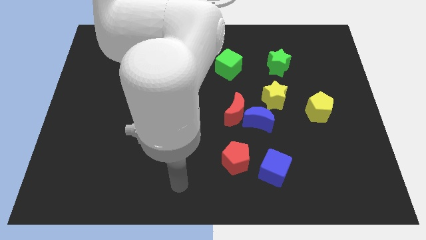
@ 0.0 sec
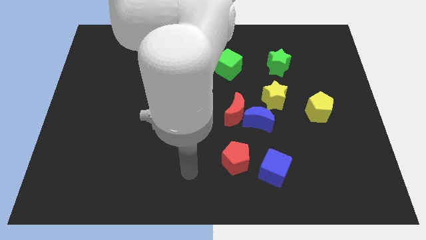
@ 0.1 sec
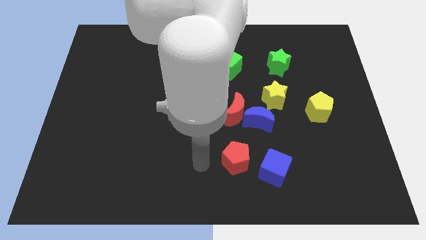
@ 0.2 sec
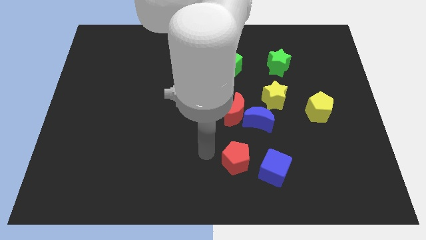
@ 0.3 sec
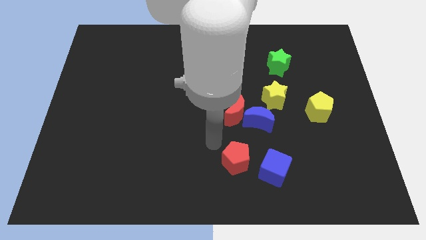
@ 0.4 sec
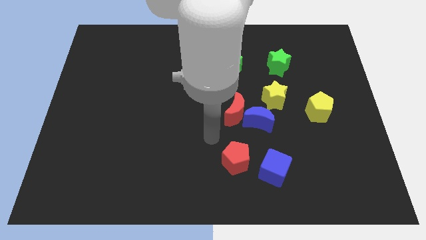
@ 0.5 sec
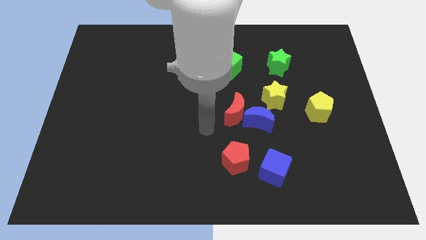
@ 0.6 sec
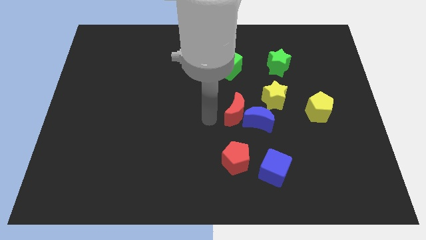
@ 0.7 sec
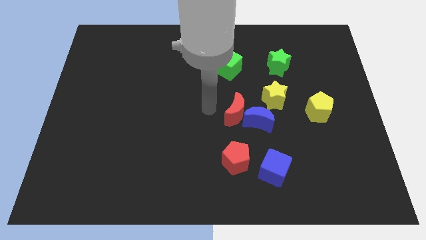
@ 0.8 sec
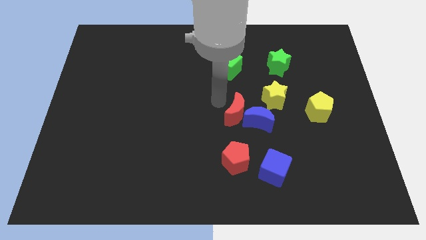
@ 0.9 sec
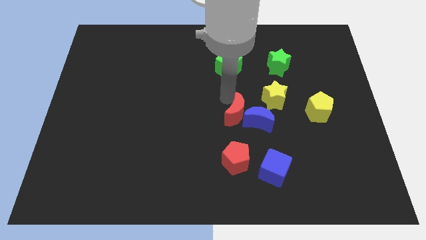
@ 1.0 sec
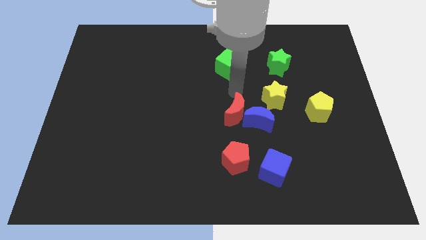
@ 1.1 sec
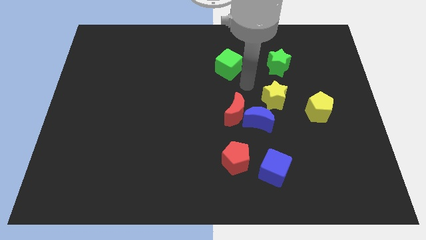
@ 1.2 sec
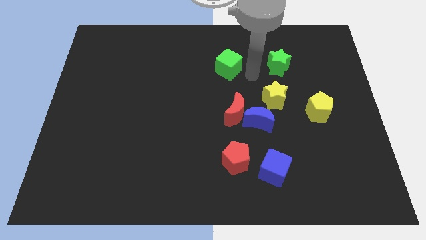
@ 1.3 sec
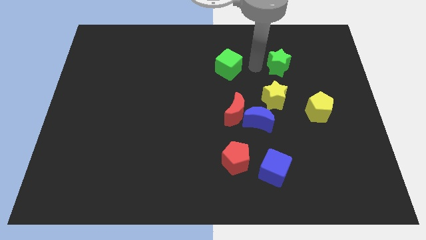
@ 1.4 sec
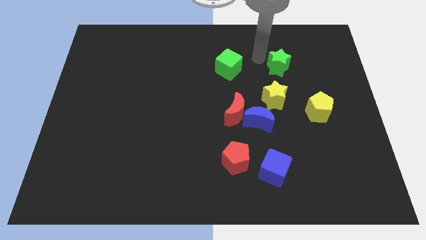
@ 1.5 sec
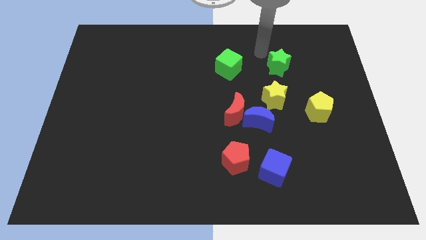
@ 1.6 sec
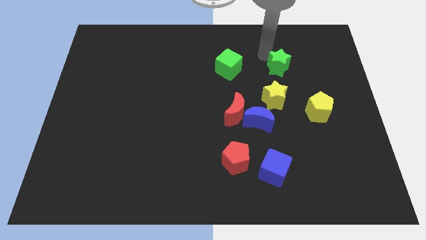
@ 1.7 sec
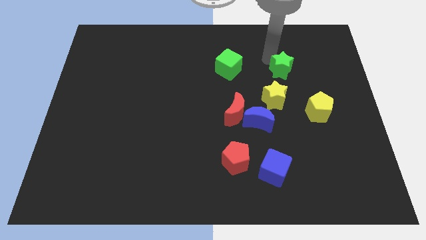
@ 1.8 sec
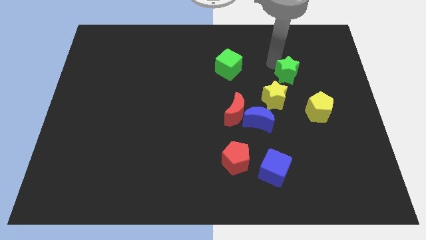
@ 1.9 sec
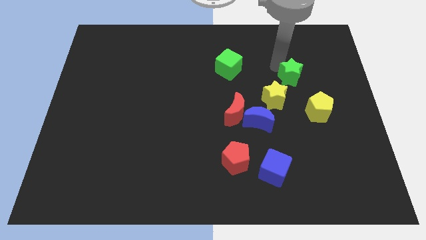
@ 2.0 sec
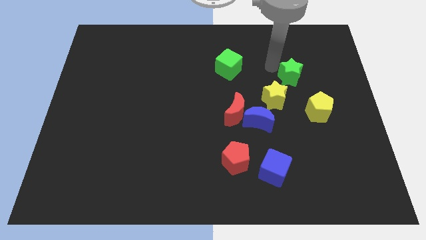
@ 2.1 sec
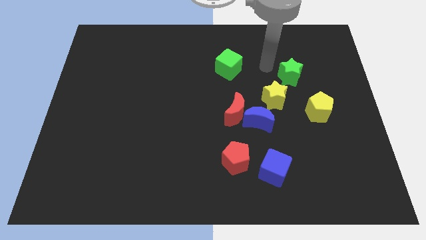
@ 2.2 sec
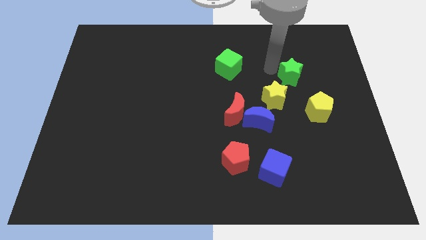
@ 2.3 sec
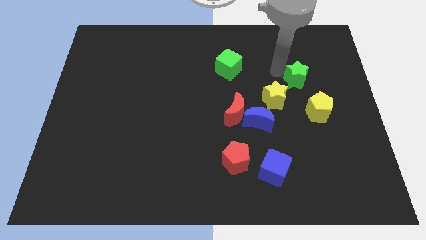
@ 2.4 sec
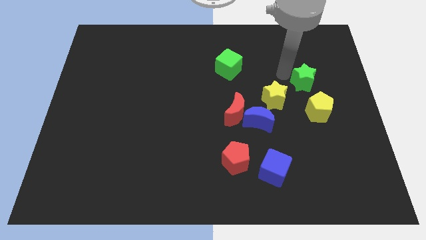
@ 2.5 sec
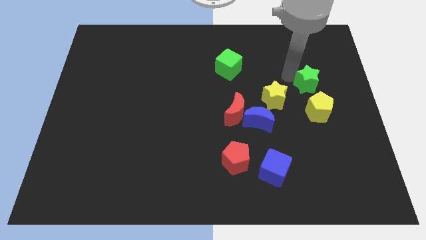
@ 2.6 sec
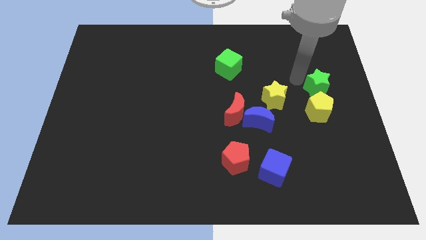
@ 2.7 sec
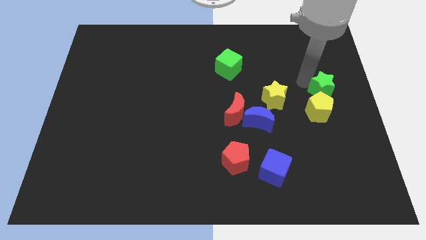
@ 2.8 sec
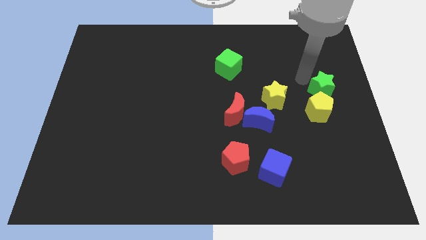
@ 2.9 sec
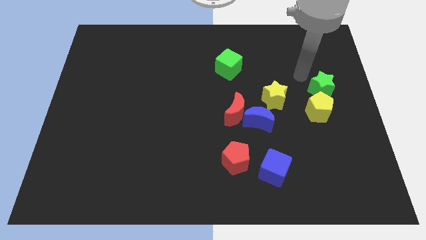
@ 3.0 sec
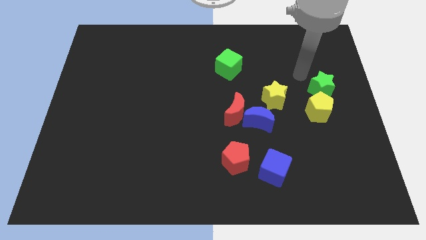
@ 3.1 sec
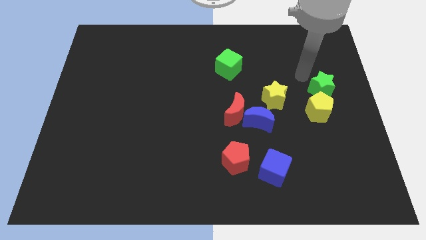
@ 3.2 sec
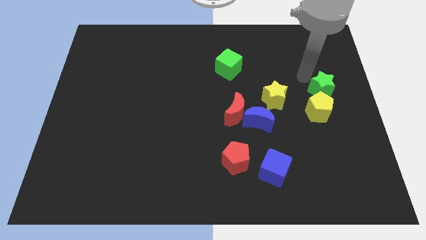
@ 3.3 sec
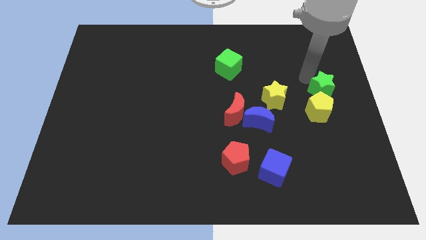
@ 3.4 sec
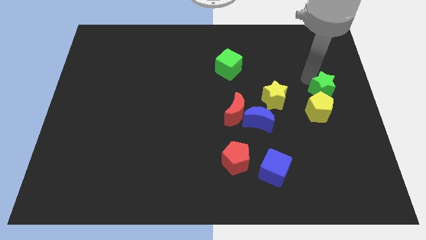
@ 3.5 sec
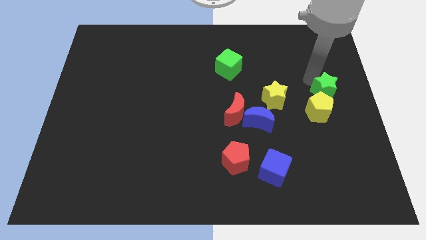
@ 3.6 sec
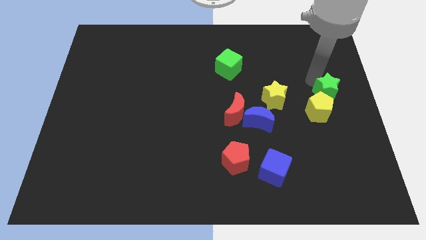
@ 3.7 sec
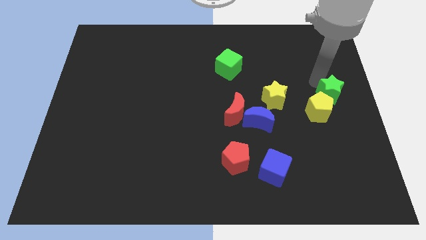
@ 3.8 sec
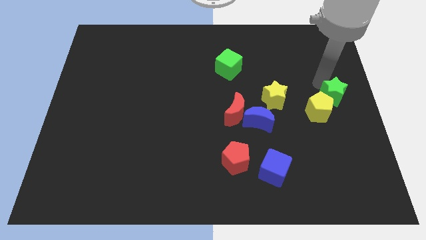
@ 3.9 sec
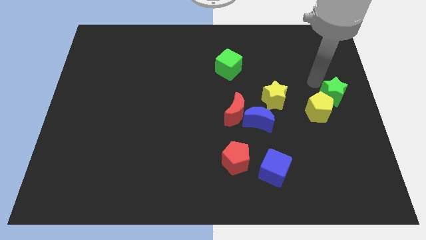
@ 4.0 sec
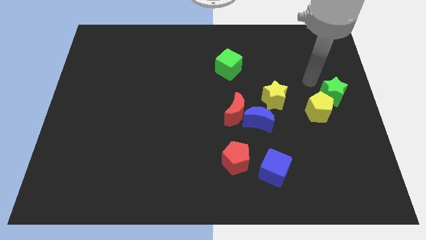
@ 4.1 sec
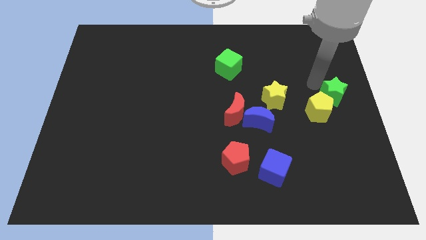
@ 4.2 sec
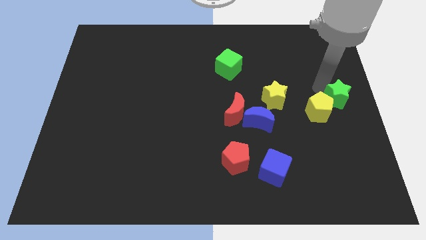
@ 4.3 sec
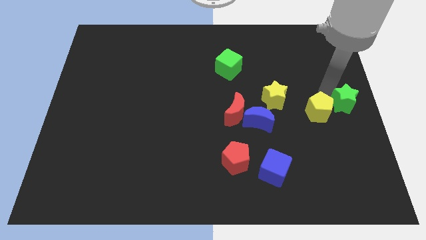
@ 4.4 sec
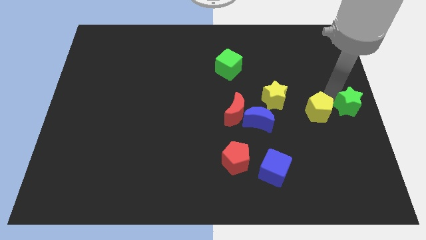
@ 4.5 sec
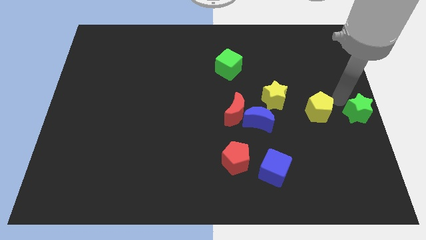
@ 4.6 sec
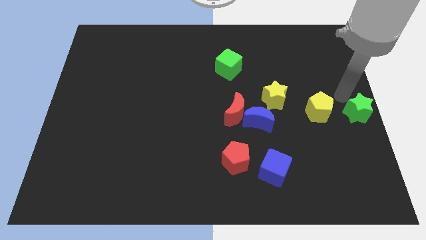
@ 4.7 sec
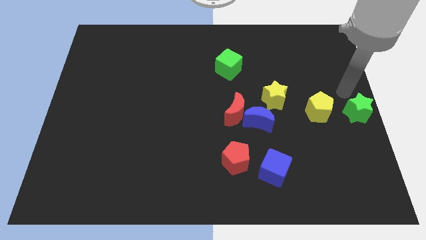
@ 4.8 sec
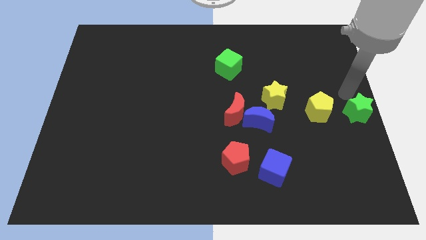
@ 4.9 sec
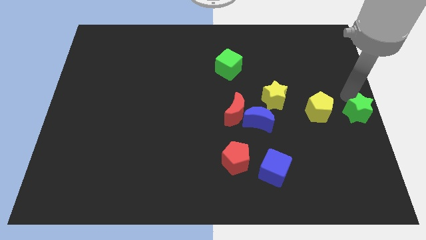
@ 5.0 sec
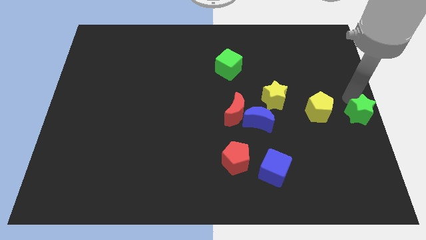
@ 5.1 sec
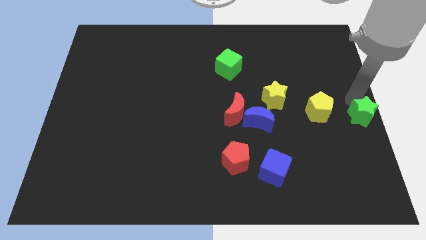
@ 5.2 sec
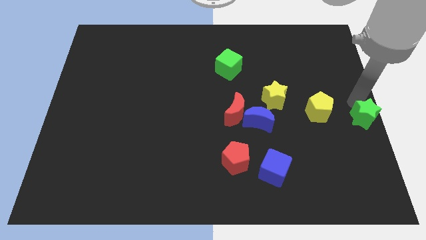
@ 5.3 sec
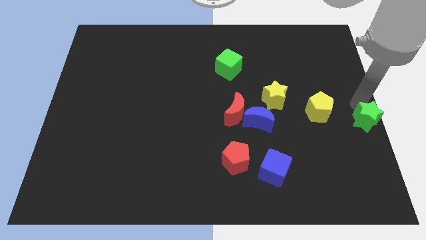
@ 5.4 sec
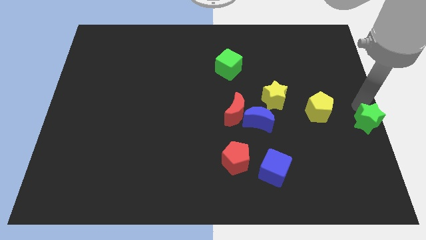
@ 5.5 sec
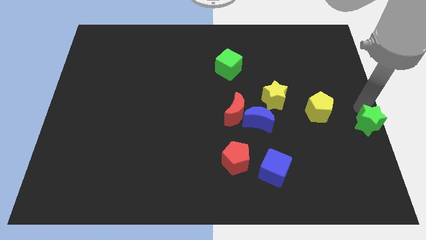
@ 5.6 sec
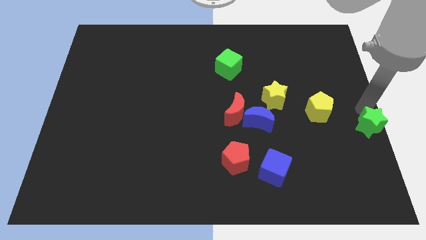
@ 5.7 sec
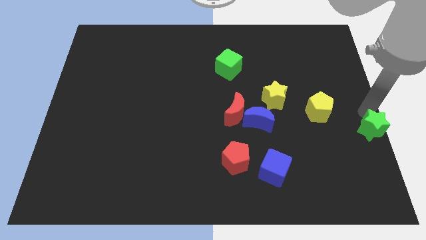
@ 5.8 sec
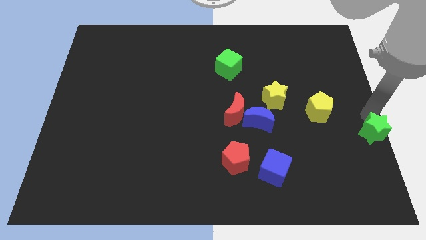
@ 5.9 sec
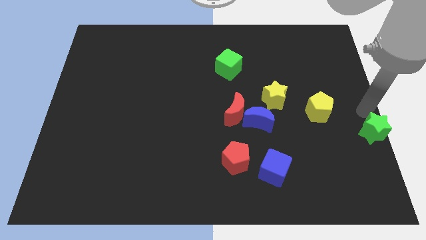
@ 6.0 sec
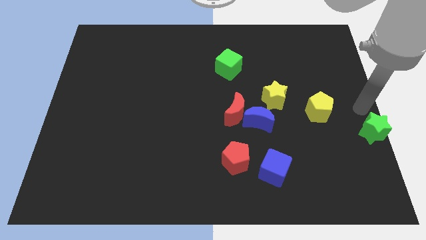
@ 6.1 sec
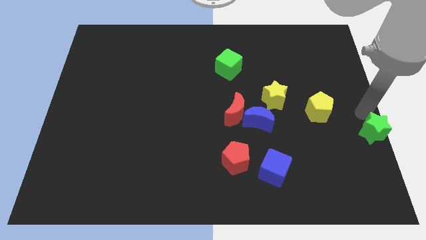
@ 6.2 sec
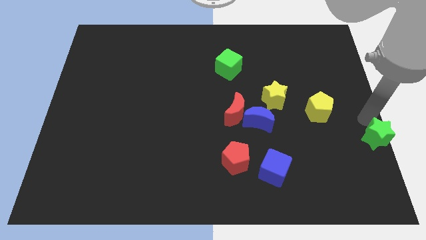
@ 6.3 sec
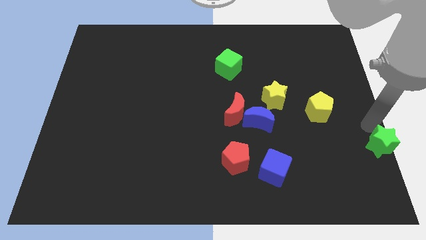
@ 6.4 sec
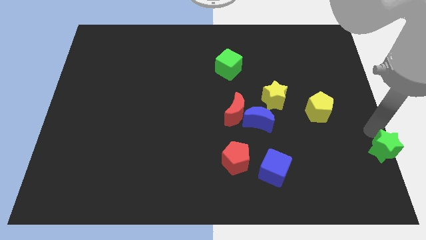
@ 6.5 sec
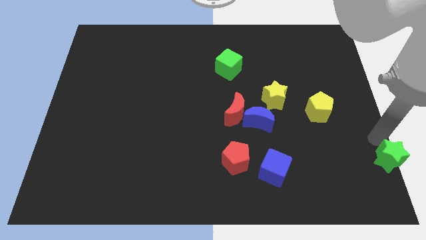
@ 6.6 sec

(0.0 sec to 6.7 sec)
slide the green star to the bottom right
